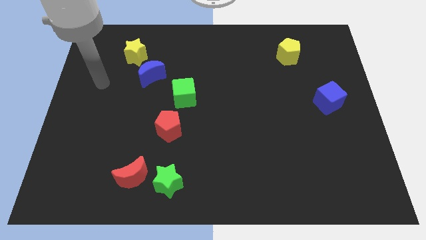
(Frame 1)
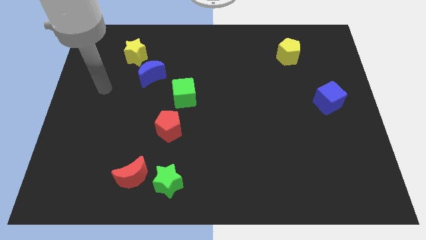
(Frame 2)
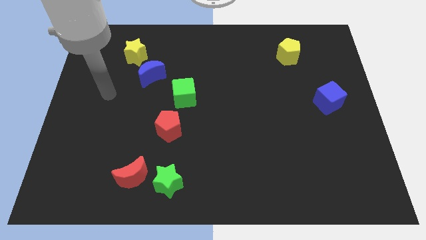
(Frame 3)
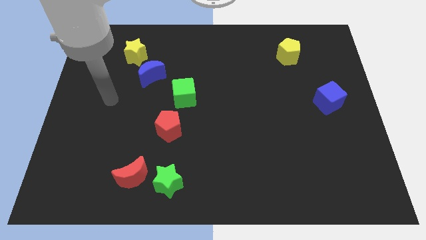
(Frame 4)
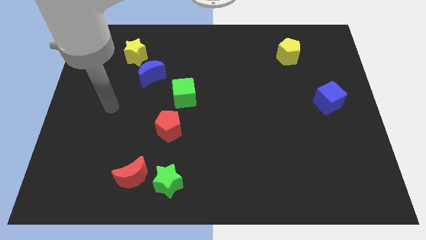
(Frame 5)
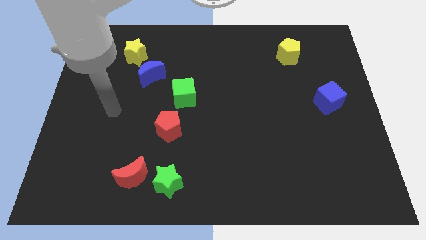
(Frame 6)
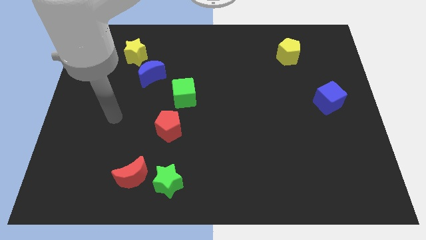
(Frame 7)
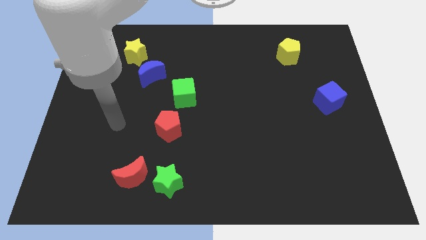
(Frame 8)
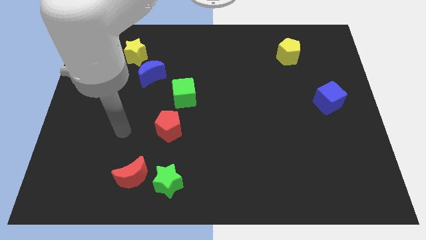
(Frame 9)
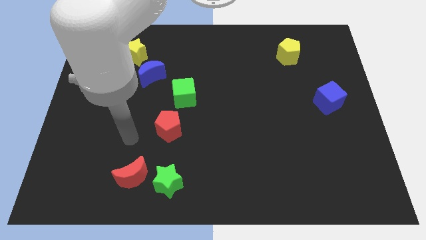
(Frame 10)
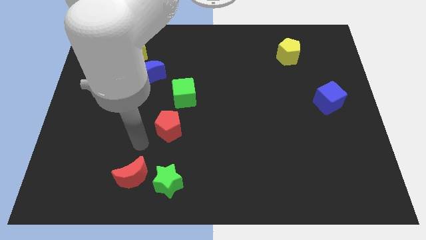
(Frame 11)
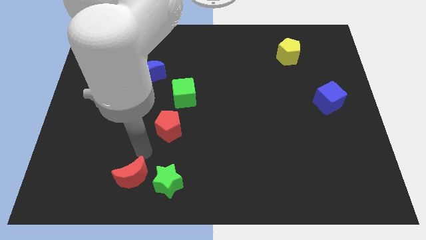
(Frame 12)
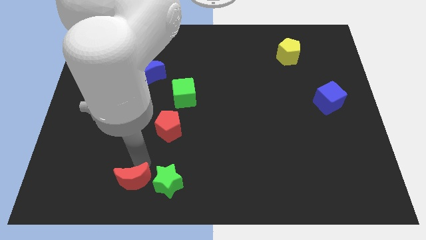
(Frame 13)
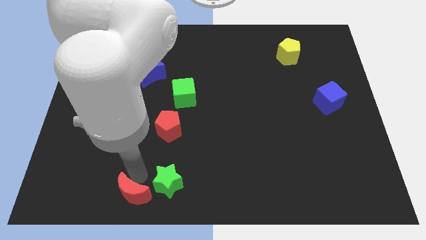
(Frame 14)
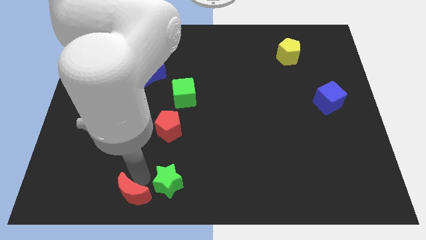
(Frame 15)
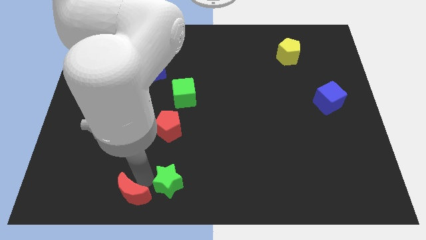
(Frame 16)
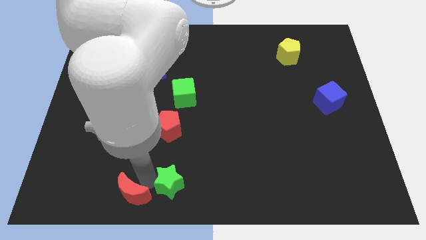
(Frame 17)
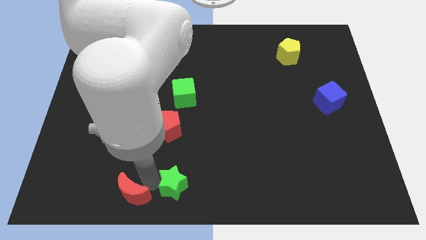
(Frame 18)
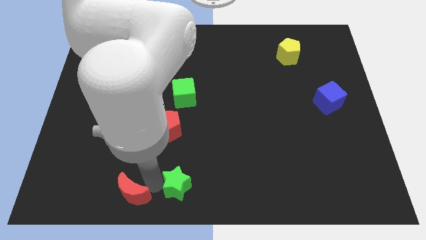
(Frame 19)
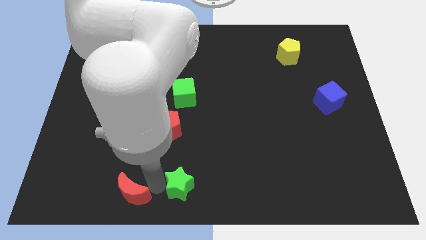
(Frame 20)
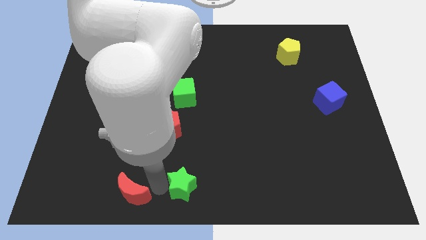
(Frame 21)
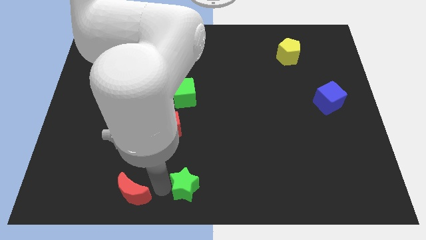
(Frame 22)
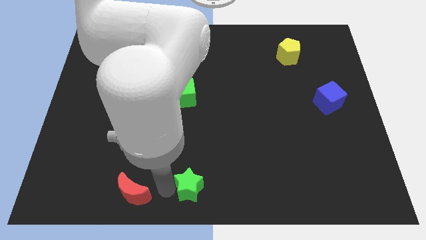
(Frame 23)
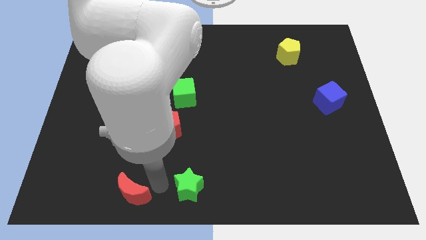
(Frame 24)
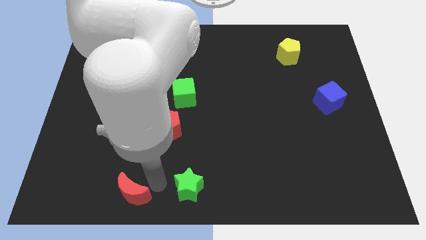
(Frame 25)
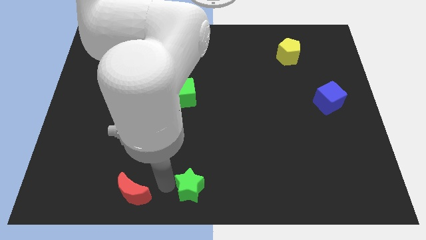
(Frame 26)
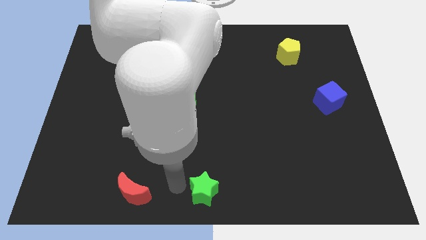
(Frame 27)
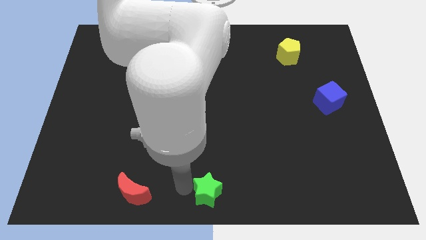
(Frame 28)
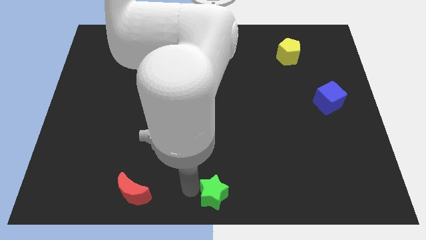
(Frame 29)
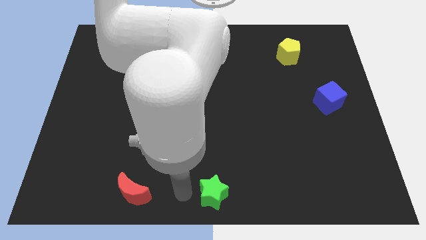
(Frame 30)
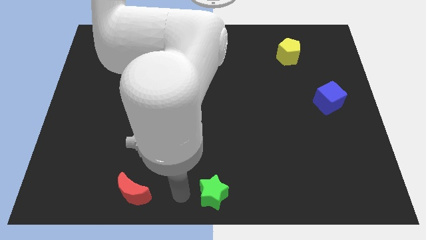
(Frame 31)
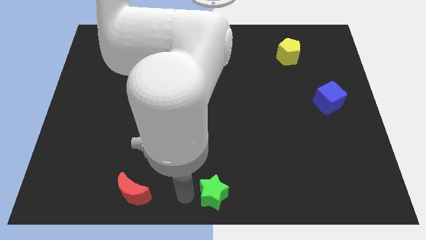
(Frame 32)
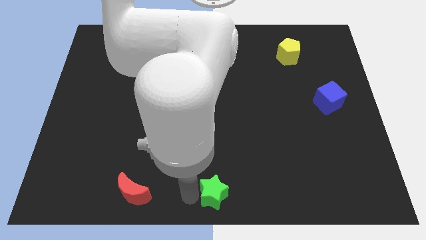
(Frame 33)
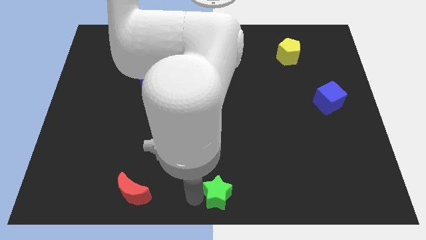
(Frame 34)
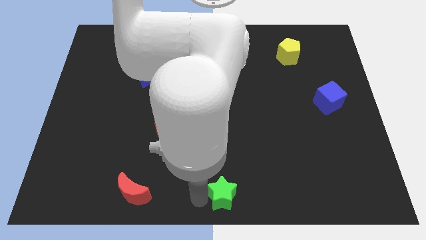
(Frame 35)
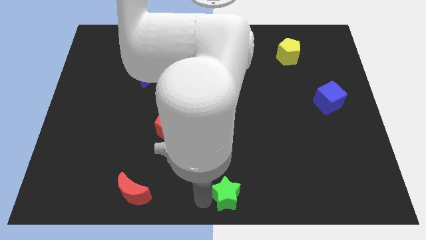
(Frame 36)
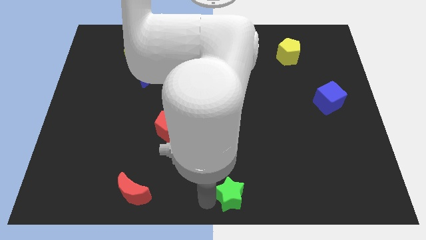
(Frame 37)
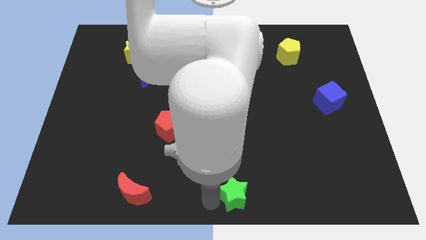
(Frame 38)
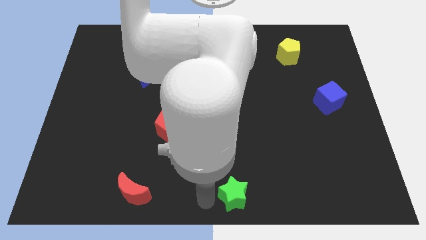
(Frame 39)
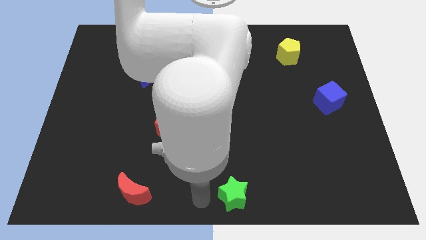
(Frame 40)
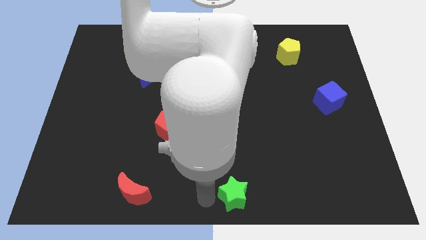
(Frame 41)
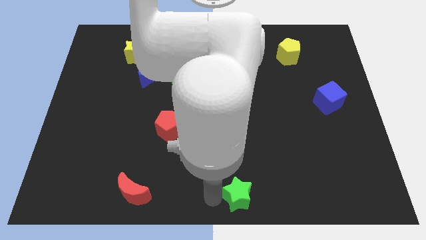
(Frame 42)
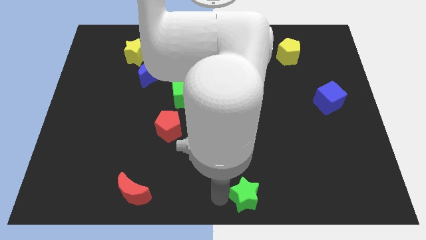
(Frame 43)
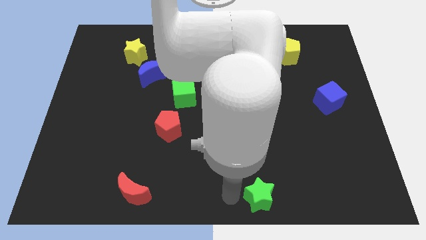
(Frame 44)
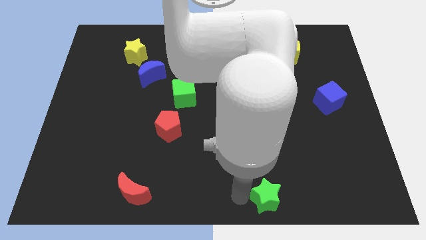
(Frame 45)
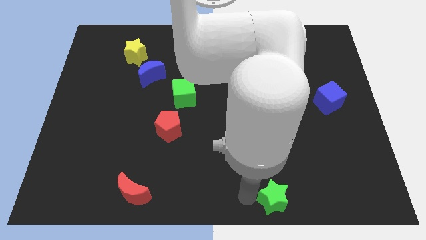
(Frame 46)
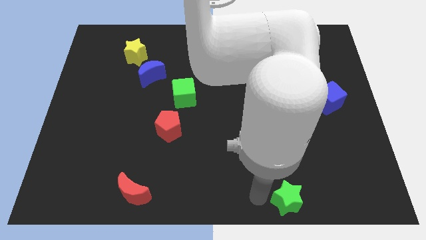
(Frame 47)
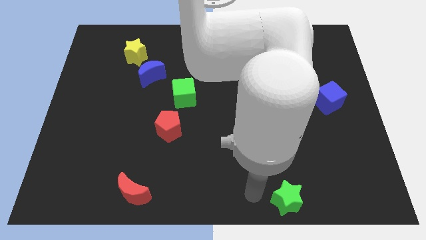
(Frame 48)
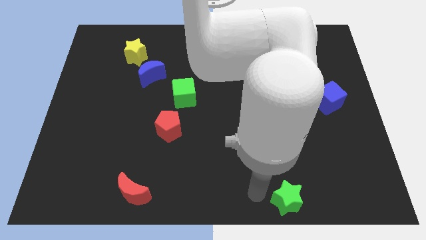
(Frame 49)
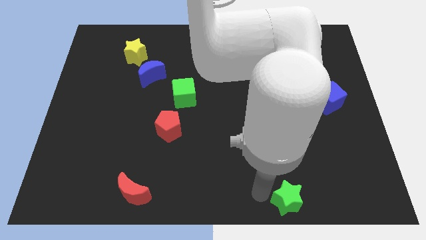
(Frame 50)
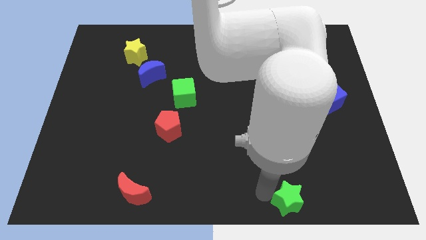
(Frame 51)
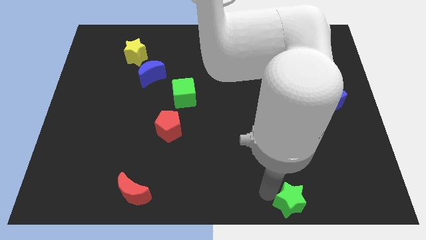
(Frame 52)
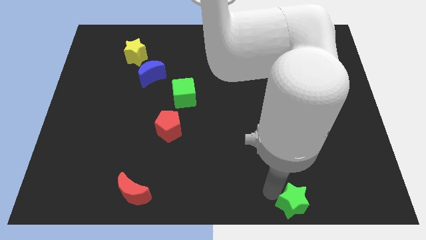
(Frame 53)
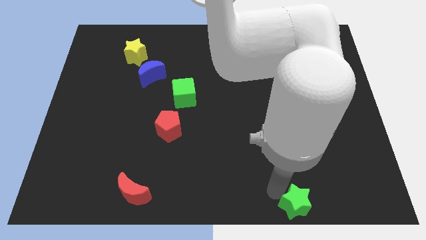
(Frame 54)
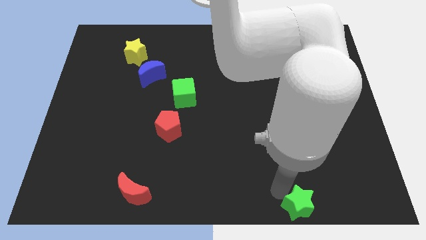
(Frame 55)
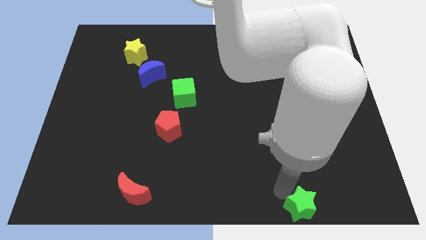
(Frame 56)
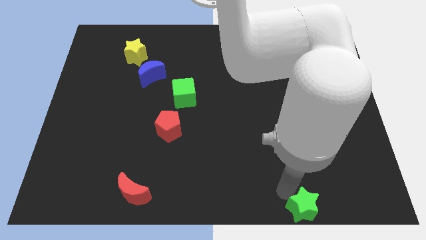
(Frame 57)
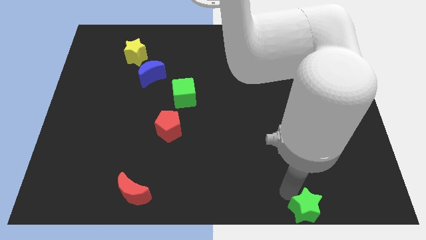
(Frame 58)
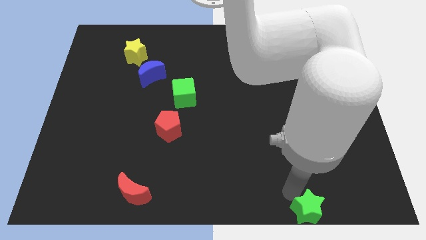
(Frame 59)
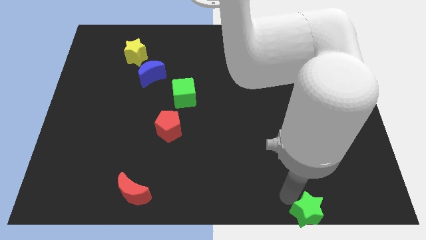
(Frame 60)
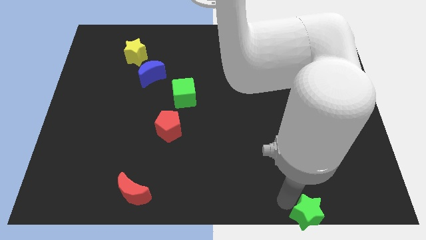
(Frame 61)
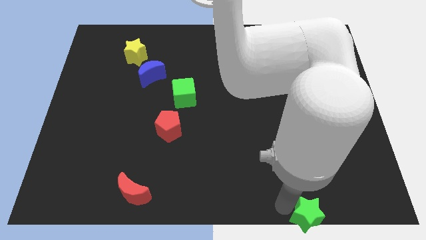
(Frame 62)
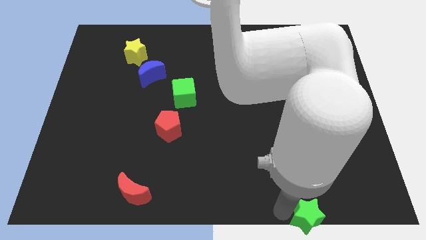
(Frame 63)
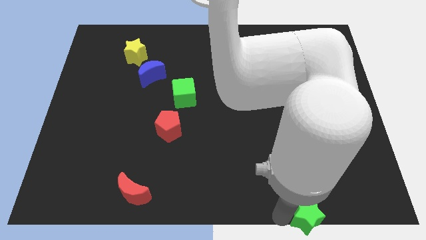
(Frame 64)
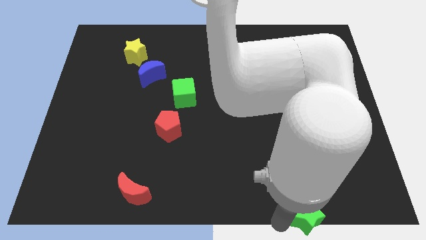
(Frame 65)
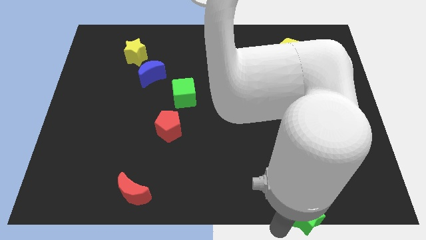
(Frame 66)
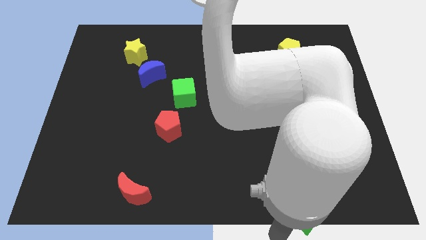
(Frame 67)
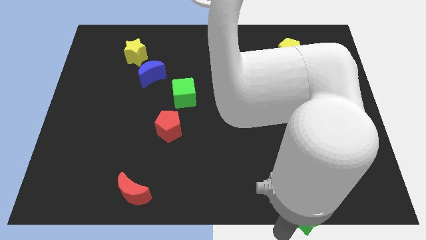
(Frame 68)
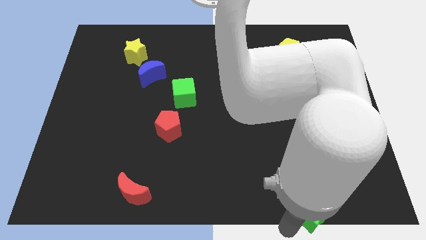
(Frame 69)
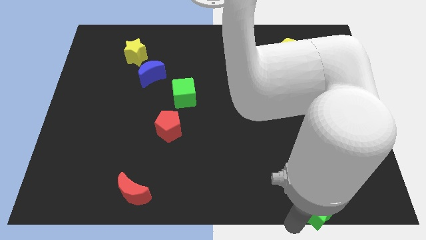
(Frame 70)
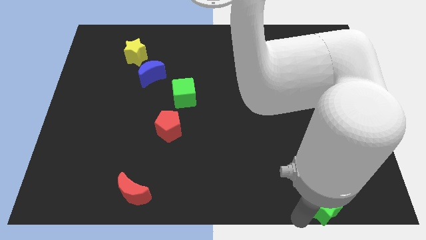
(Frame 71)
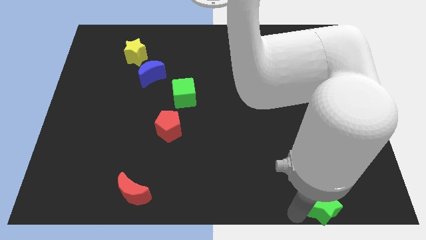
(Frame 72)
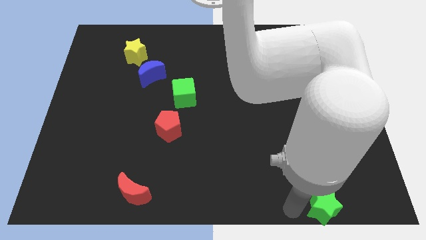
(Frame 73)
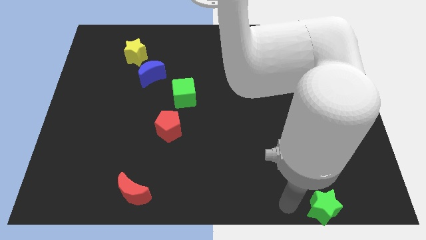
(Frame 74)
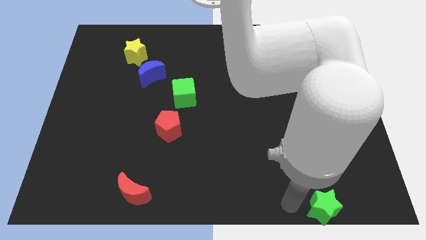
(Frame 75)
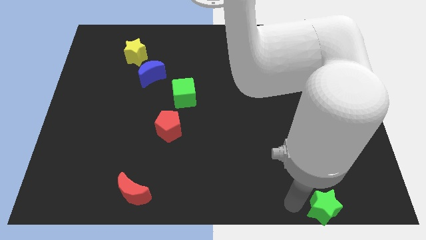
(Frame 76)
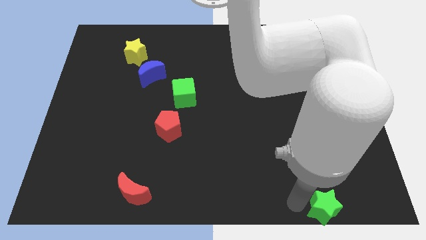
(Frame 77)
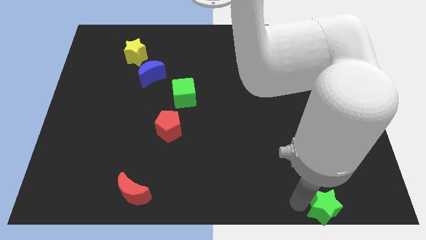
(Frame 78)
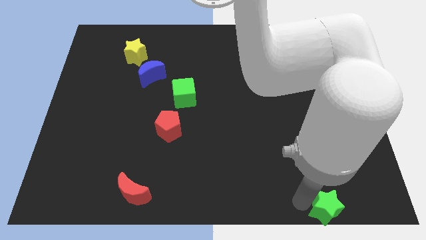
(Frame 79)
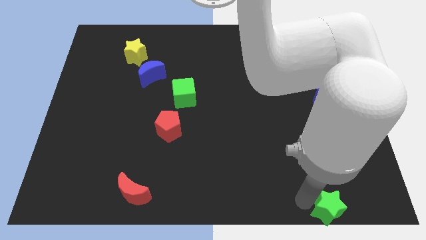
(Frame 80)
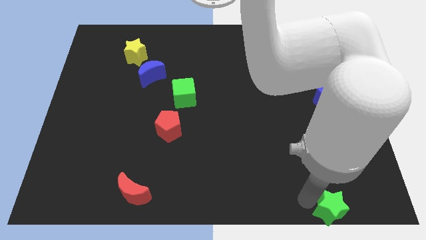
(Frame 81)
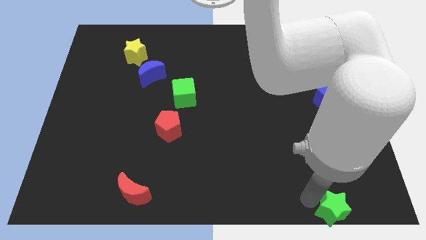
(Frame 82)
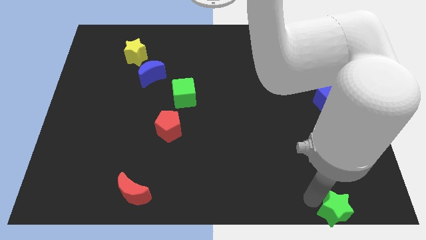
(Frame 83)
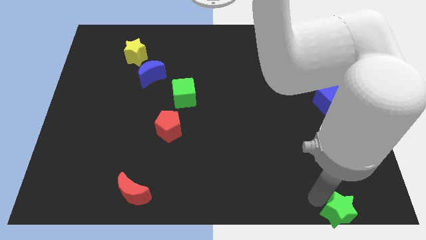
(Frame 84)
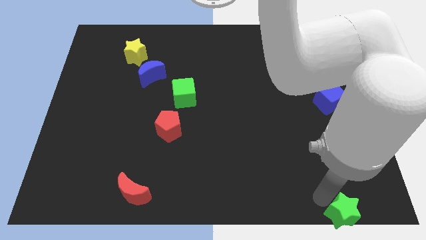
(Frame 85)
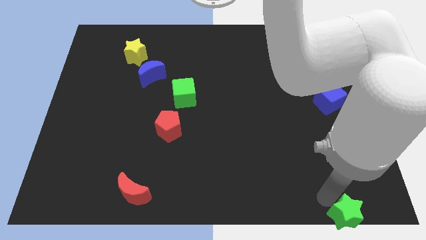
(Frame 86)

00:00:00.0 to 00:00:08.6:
move the green star to the bottom right of the board
